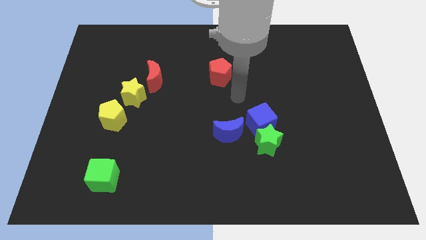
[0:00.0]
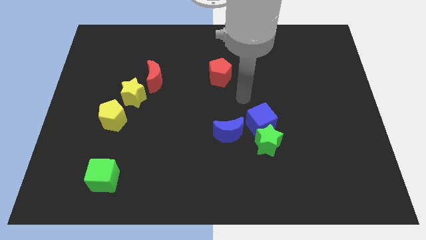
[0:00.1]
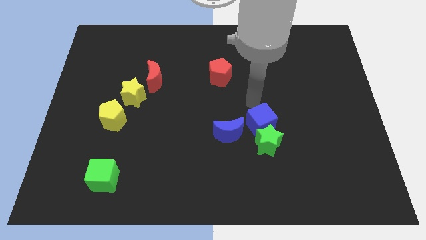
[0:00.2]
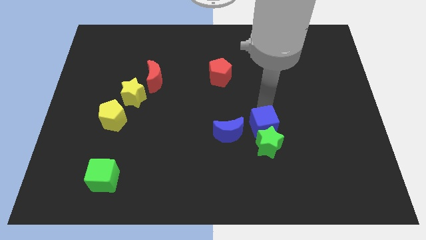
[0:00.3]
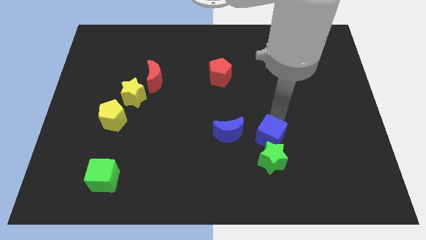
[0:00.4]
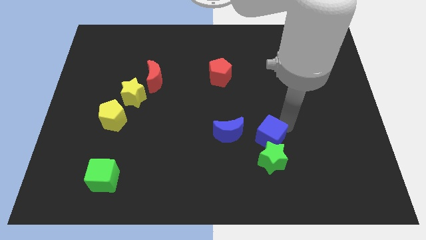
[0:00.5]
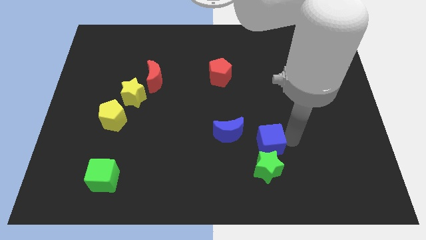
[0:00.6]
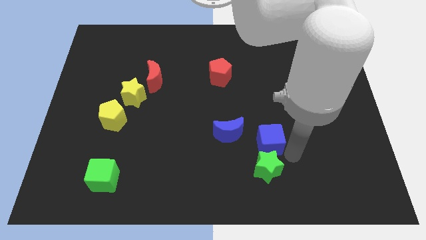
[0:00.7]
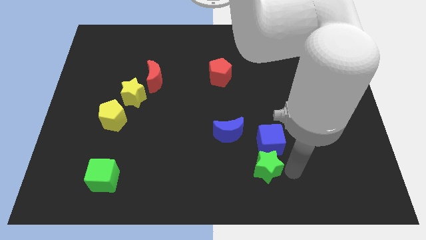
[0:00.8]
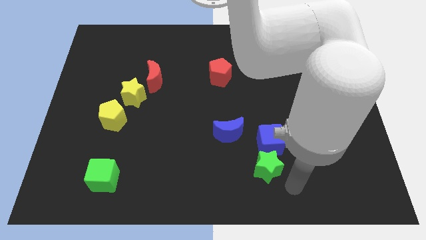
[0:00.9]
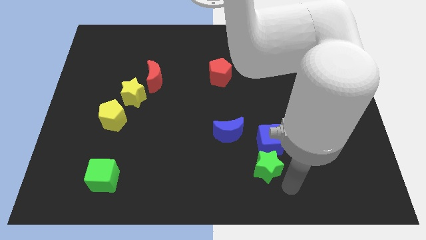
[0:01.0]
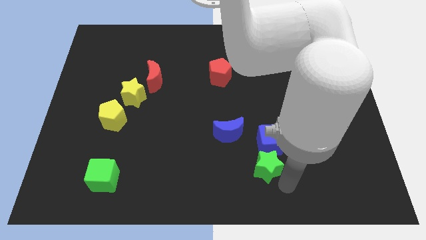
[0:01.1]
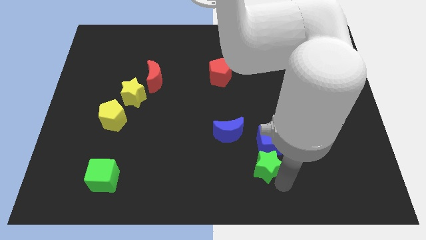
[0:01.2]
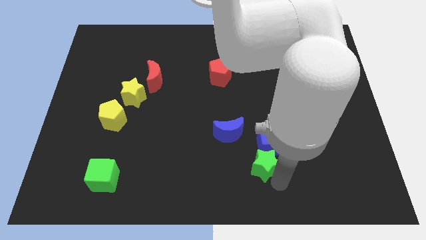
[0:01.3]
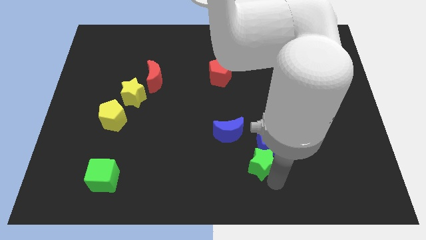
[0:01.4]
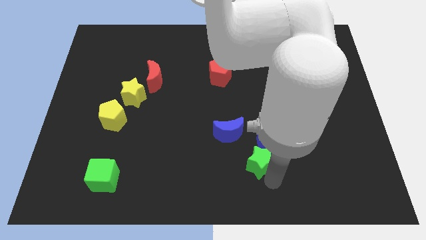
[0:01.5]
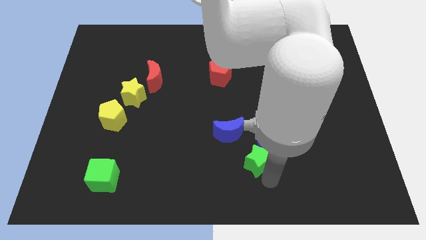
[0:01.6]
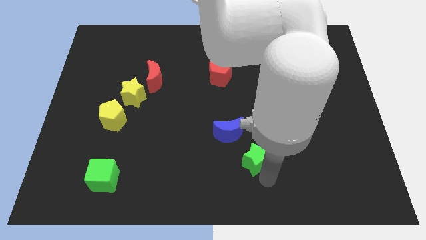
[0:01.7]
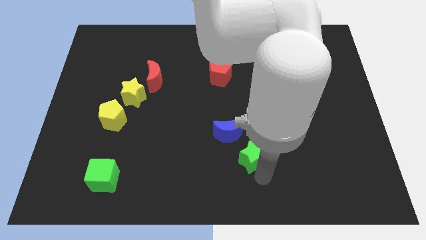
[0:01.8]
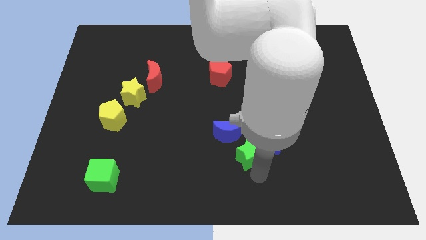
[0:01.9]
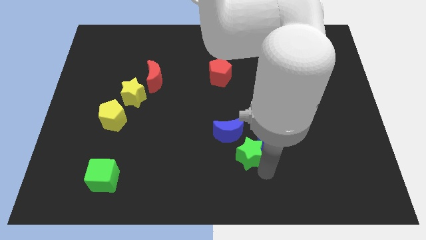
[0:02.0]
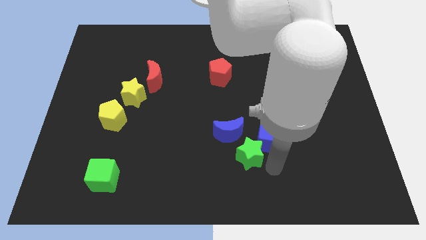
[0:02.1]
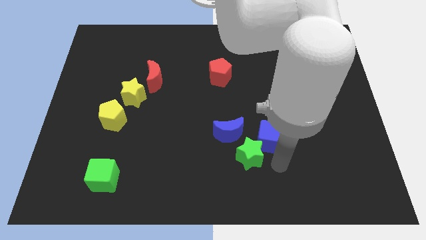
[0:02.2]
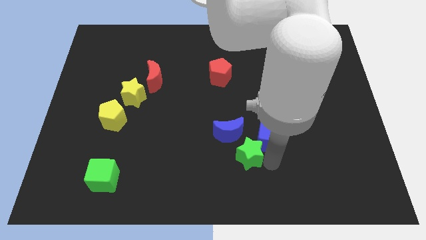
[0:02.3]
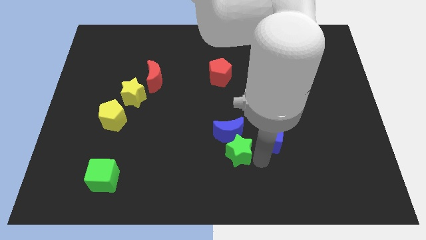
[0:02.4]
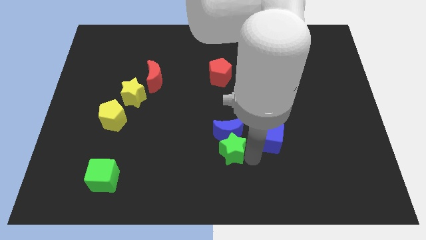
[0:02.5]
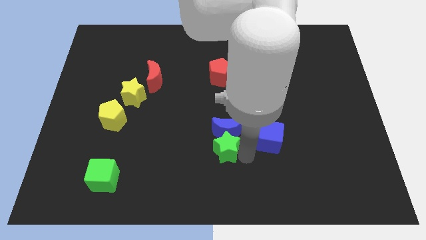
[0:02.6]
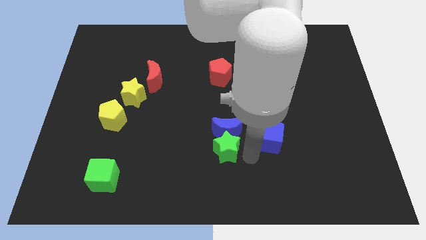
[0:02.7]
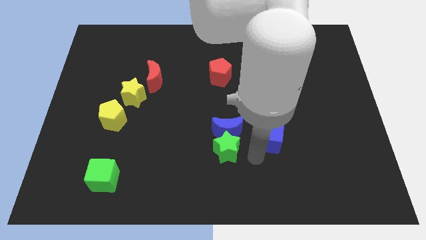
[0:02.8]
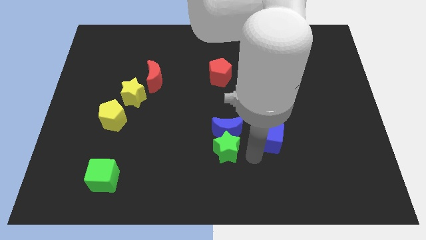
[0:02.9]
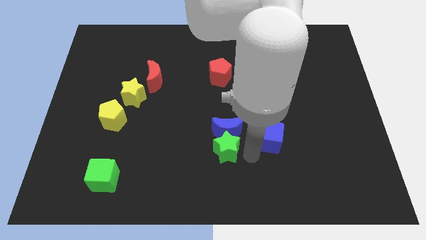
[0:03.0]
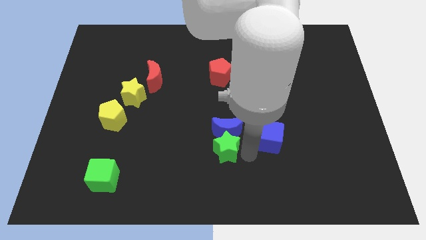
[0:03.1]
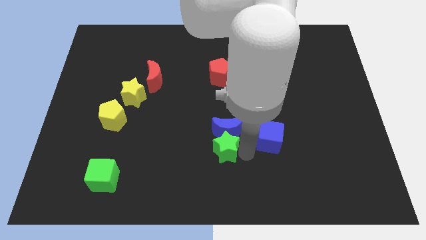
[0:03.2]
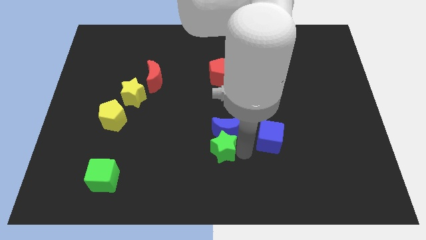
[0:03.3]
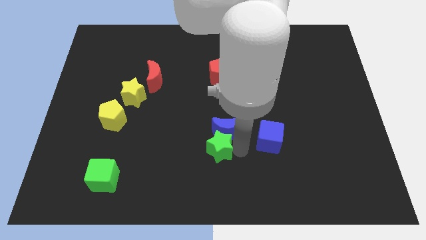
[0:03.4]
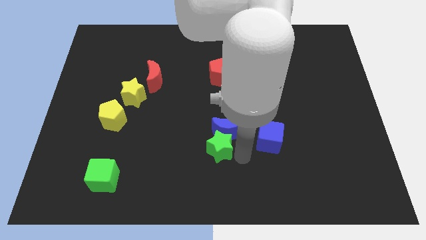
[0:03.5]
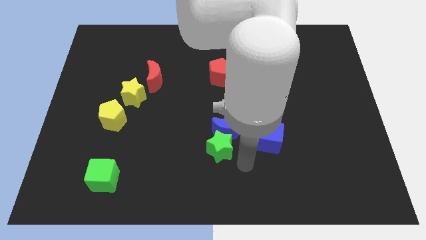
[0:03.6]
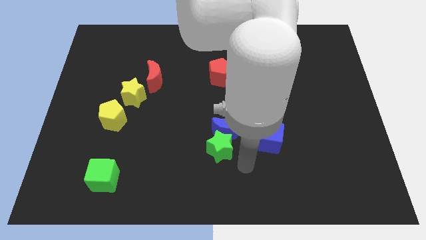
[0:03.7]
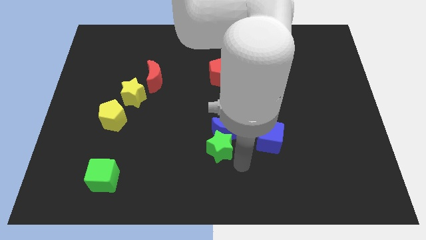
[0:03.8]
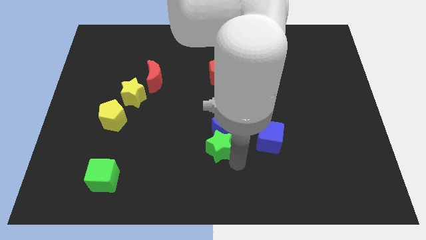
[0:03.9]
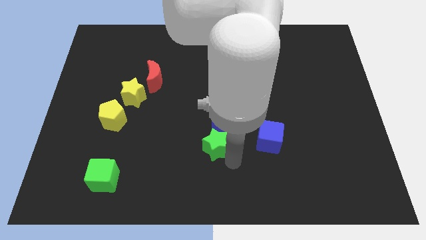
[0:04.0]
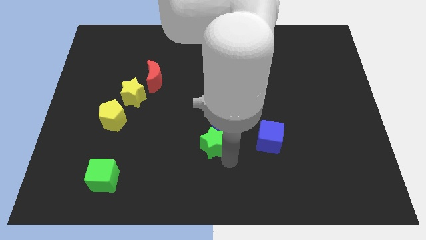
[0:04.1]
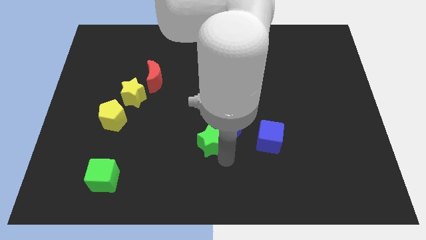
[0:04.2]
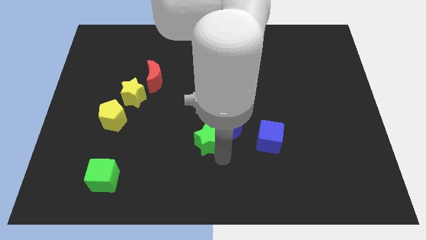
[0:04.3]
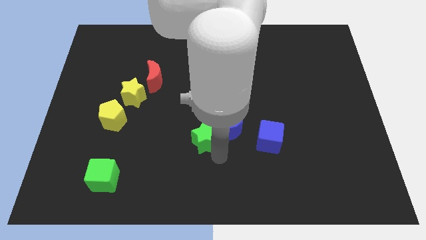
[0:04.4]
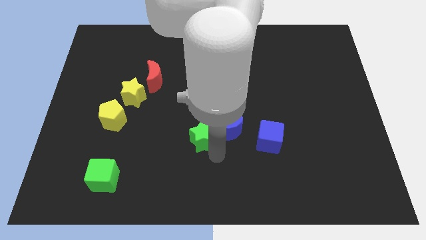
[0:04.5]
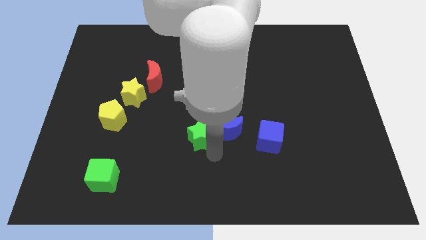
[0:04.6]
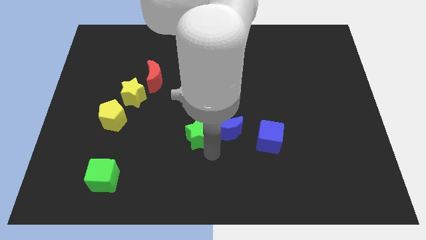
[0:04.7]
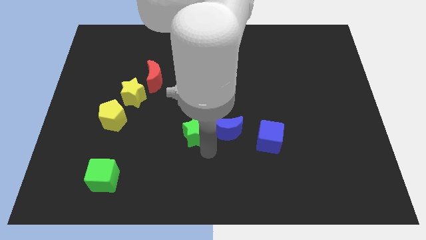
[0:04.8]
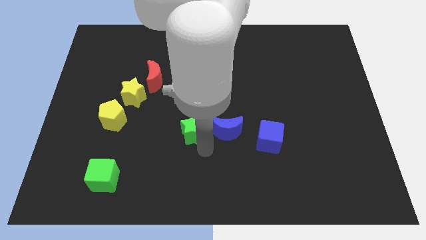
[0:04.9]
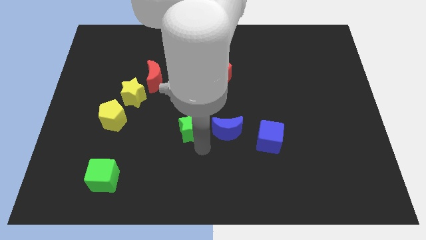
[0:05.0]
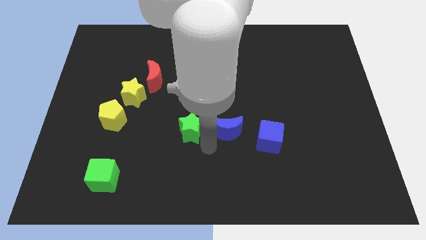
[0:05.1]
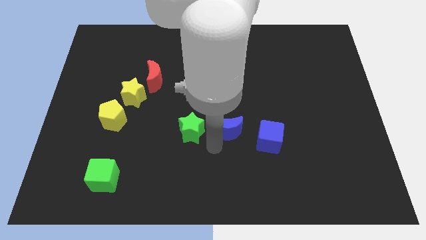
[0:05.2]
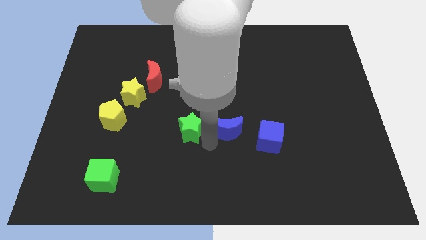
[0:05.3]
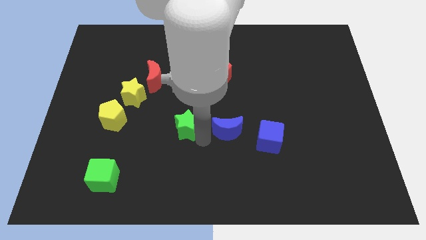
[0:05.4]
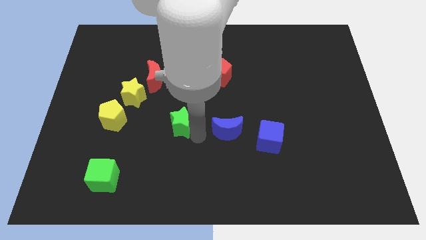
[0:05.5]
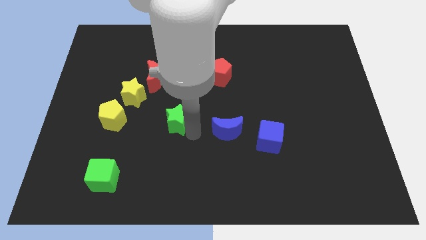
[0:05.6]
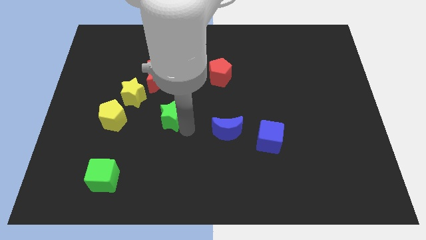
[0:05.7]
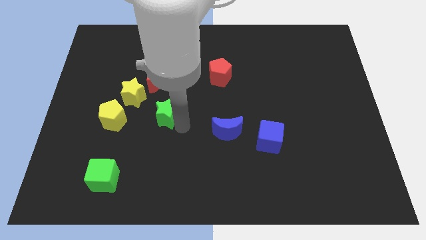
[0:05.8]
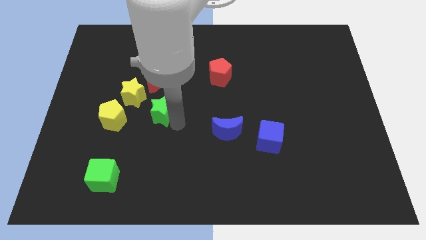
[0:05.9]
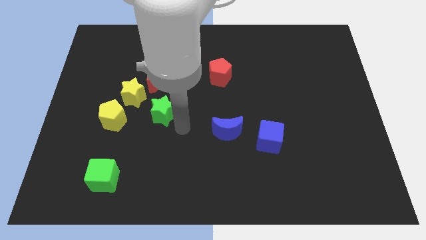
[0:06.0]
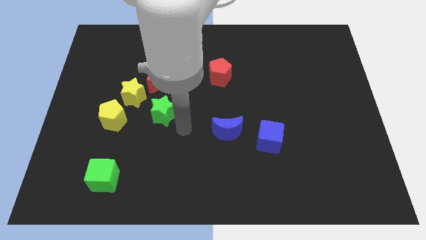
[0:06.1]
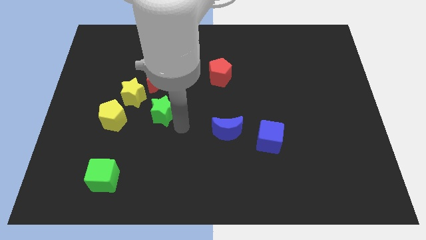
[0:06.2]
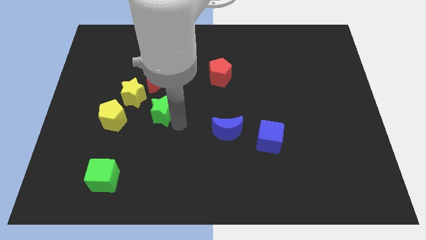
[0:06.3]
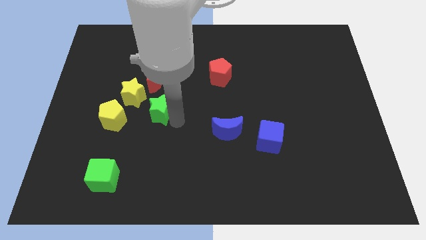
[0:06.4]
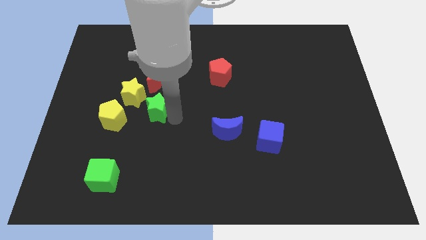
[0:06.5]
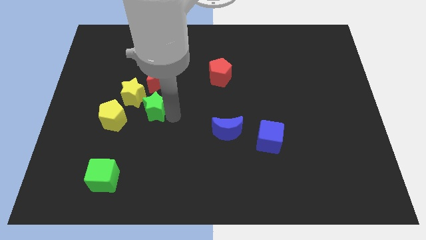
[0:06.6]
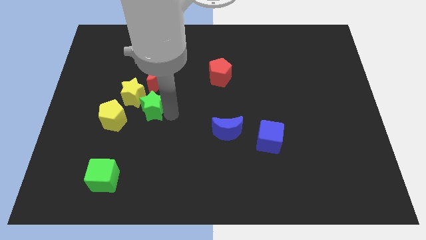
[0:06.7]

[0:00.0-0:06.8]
slide the green star towards the yellow star

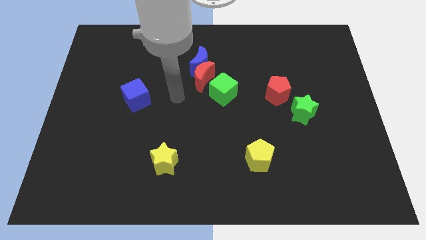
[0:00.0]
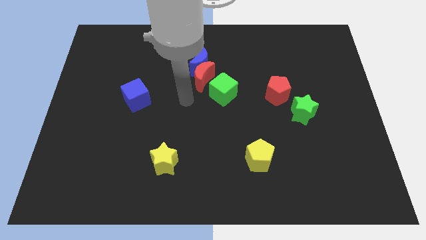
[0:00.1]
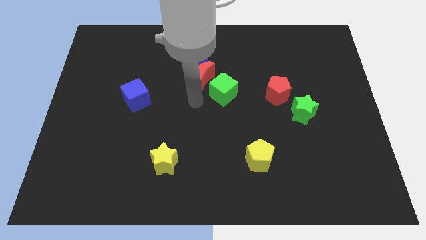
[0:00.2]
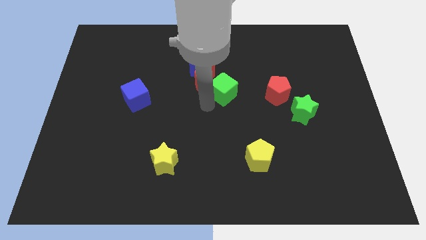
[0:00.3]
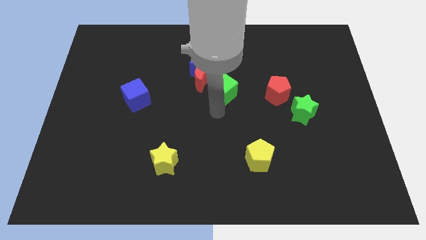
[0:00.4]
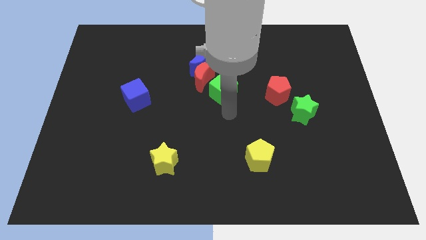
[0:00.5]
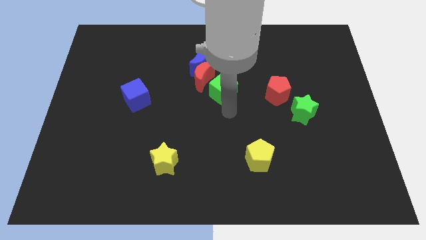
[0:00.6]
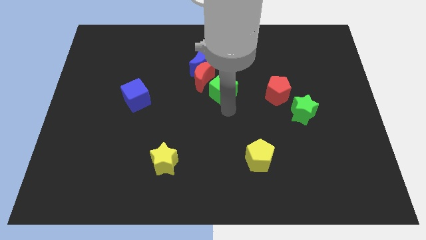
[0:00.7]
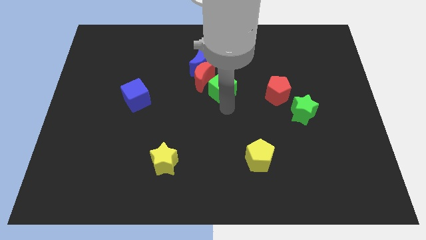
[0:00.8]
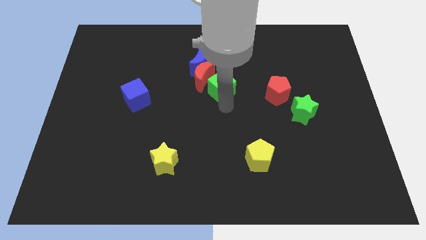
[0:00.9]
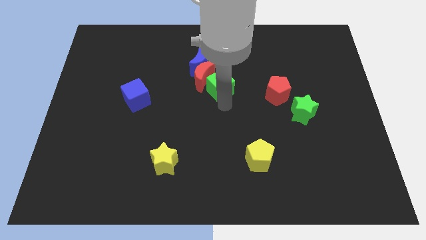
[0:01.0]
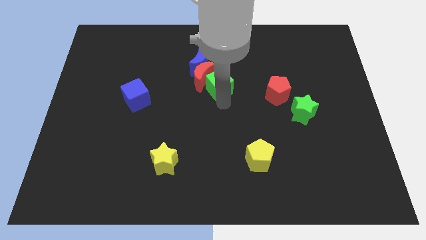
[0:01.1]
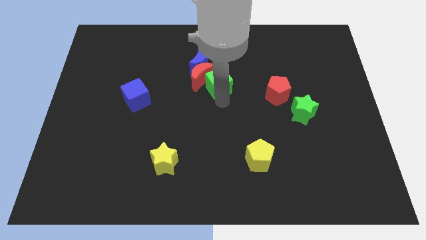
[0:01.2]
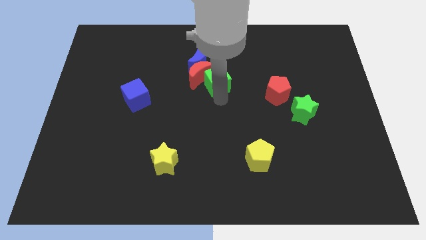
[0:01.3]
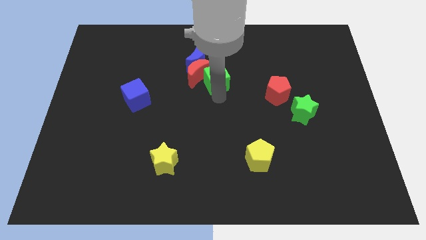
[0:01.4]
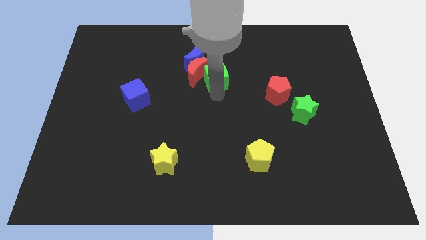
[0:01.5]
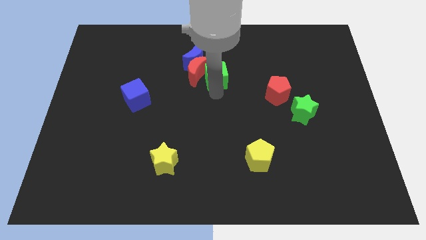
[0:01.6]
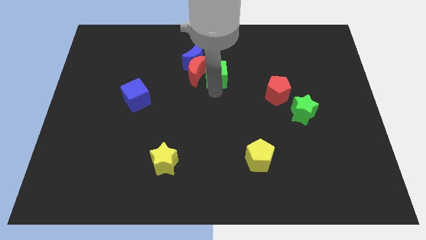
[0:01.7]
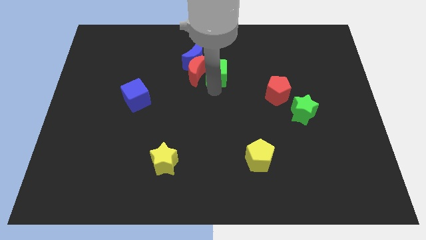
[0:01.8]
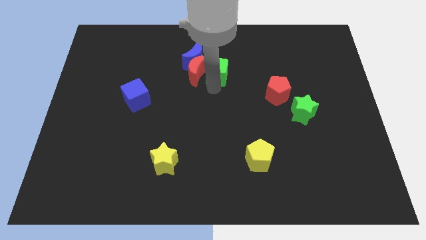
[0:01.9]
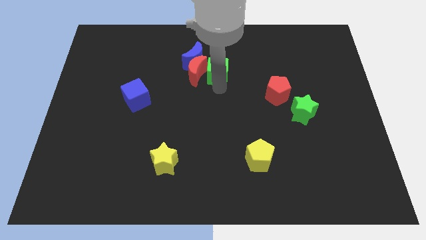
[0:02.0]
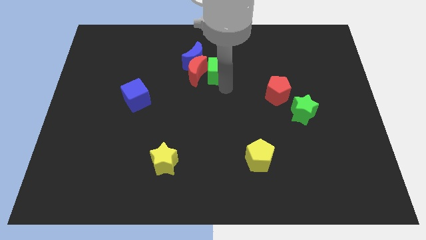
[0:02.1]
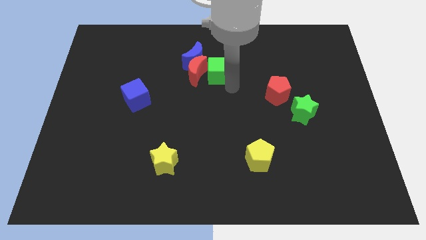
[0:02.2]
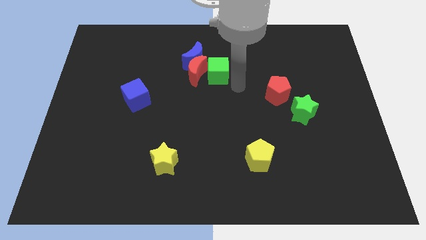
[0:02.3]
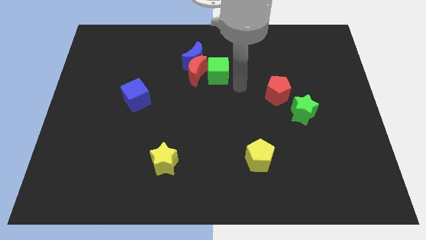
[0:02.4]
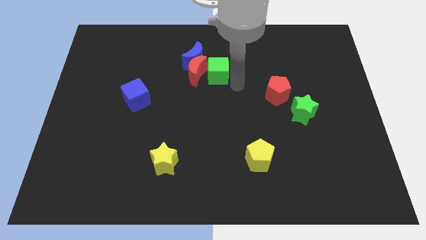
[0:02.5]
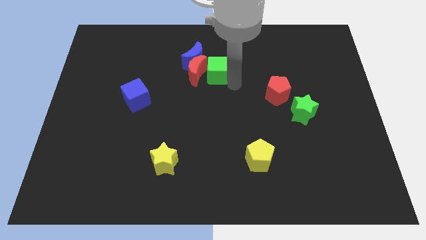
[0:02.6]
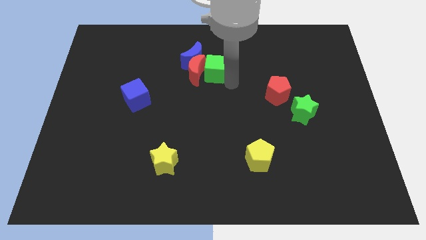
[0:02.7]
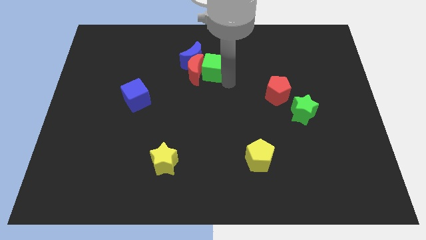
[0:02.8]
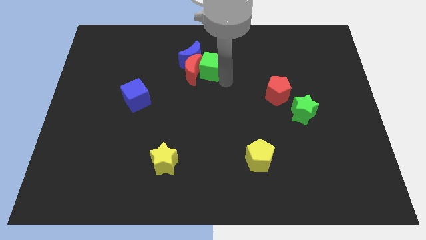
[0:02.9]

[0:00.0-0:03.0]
slide the green cube next to the blue moon
